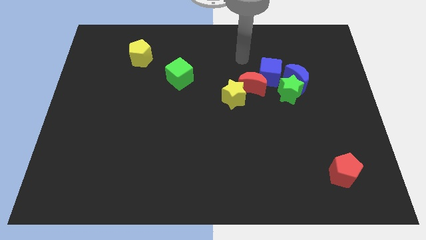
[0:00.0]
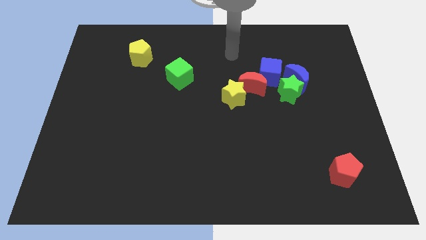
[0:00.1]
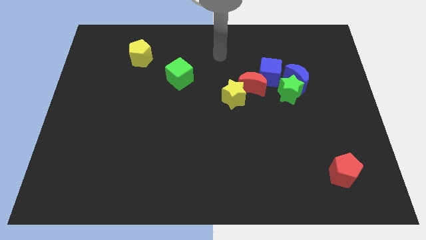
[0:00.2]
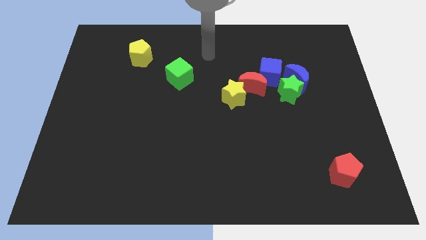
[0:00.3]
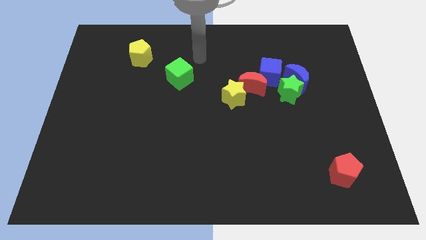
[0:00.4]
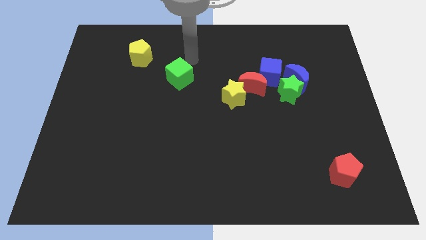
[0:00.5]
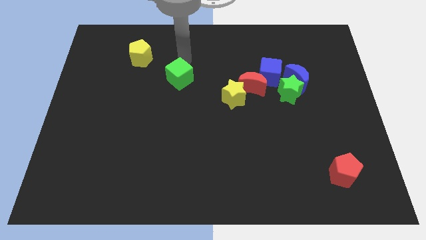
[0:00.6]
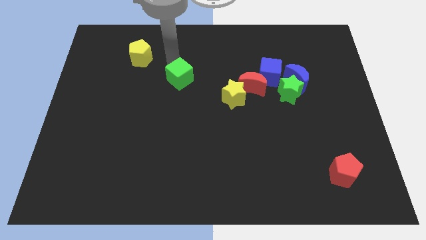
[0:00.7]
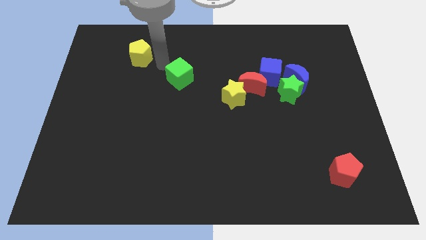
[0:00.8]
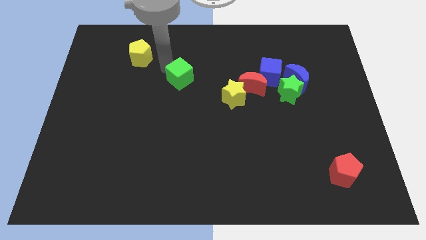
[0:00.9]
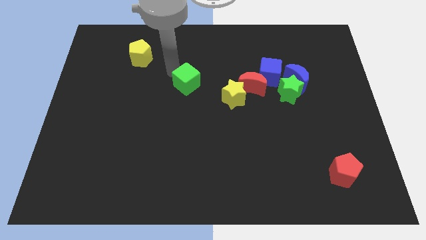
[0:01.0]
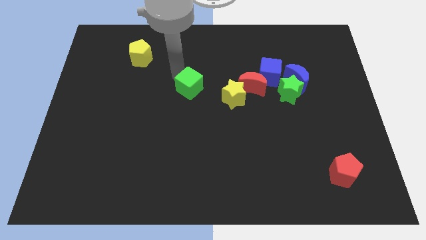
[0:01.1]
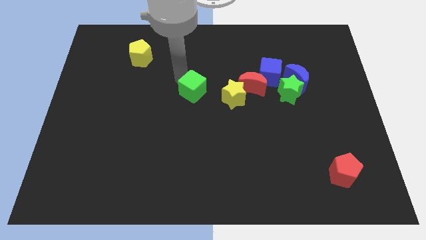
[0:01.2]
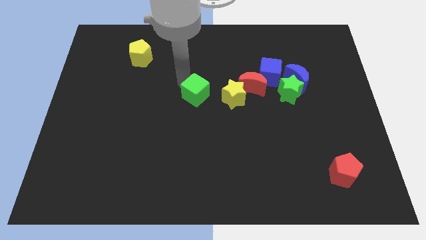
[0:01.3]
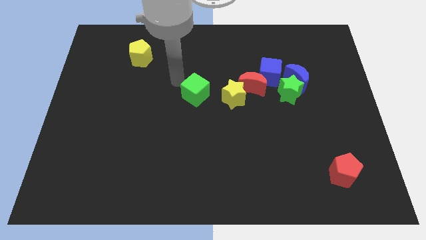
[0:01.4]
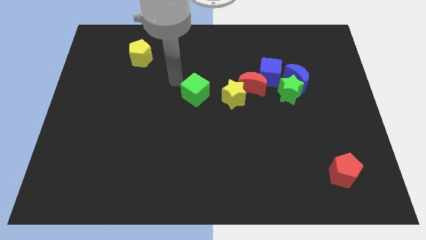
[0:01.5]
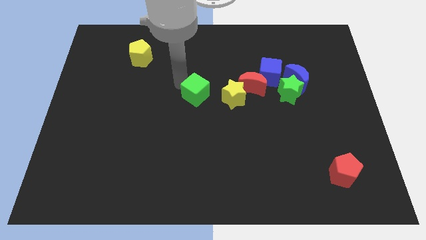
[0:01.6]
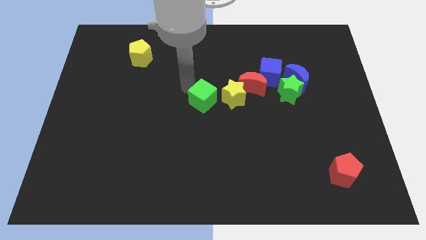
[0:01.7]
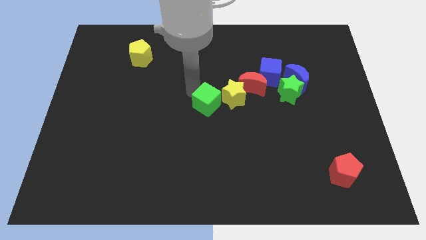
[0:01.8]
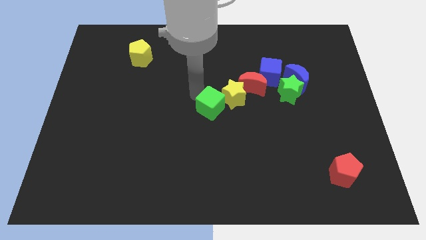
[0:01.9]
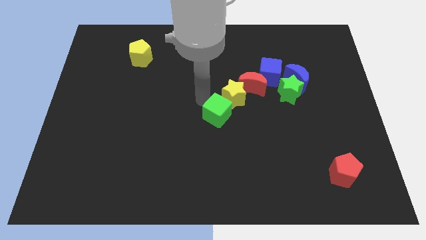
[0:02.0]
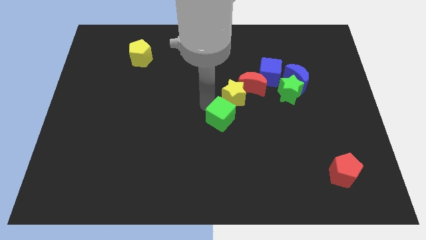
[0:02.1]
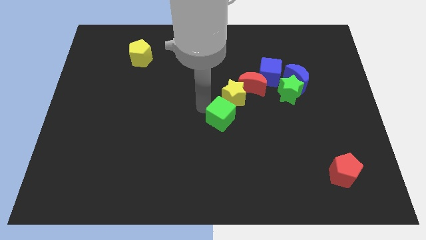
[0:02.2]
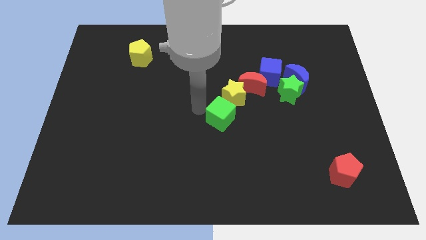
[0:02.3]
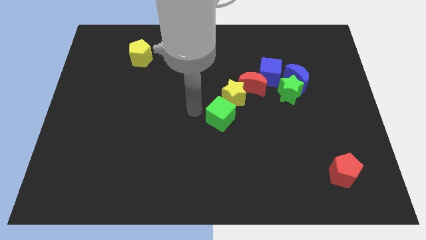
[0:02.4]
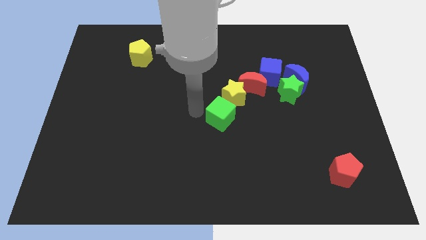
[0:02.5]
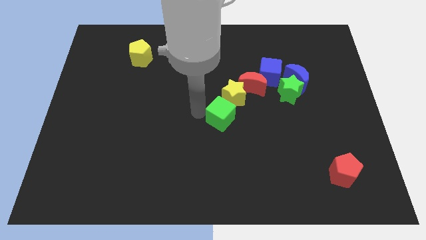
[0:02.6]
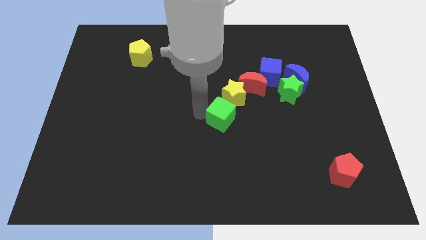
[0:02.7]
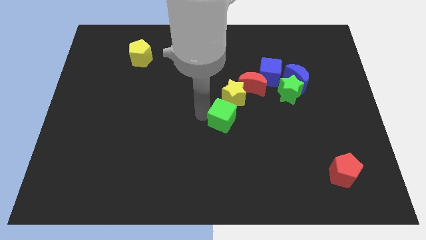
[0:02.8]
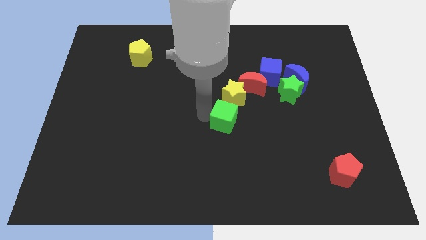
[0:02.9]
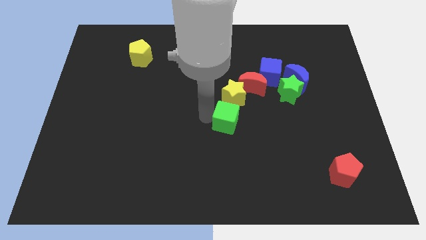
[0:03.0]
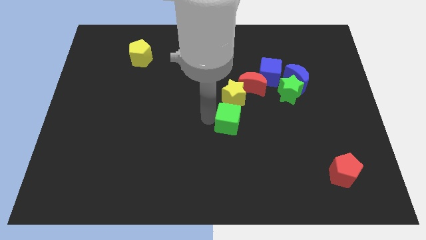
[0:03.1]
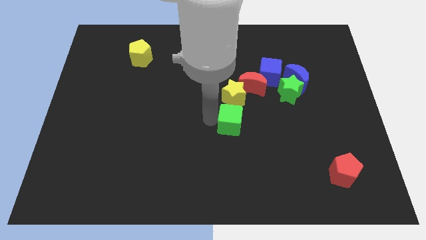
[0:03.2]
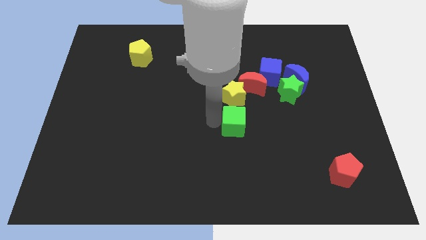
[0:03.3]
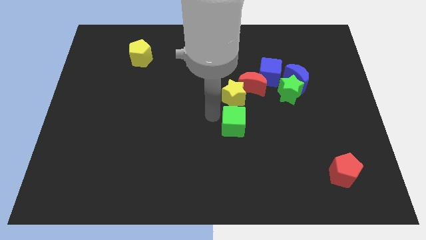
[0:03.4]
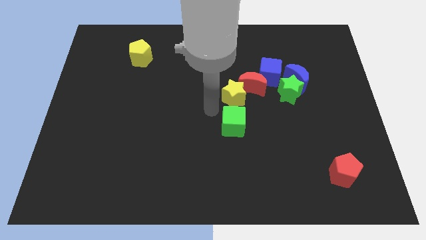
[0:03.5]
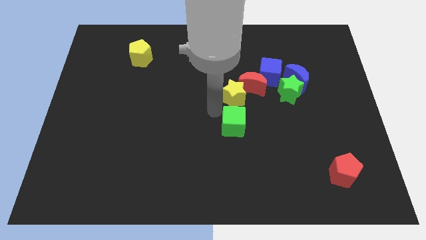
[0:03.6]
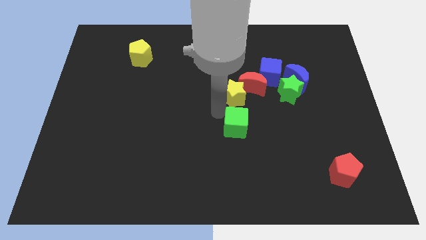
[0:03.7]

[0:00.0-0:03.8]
slide the green cube downwards and then to the right

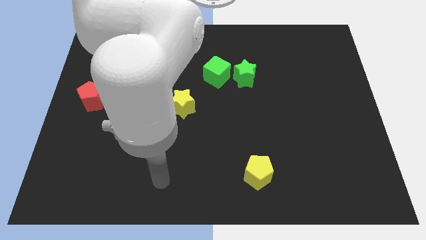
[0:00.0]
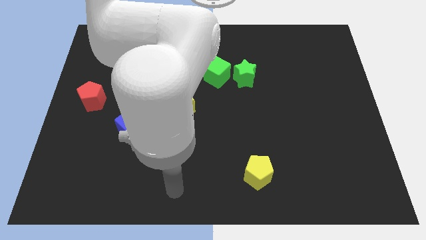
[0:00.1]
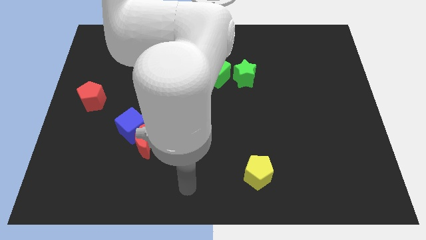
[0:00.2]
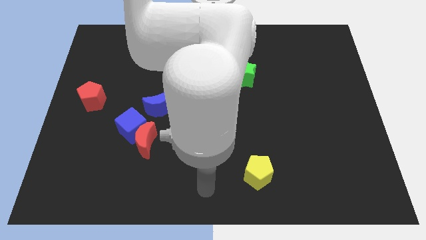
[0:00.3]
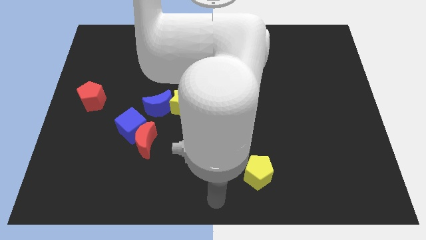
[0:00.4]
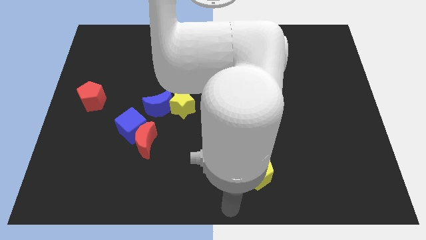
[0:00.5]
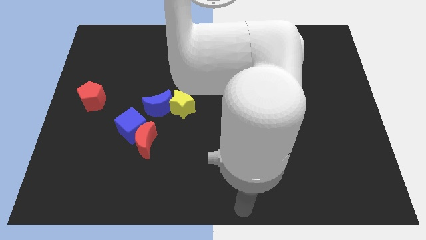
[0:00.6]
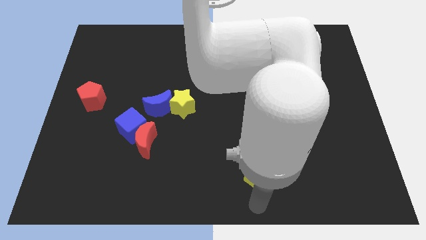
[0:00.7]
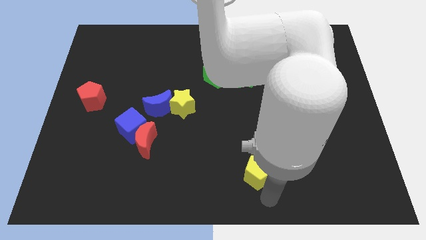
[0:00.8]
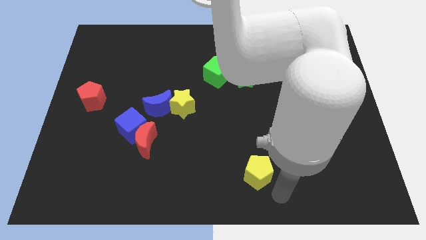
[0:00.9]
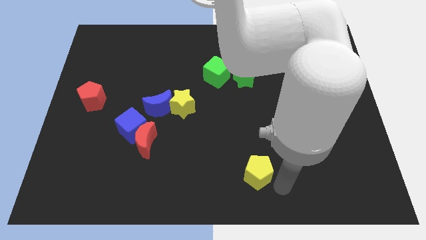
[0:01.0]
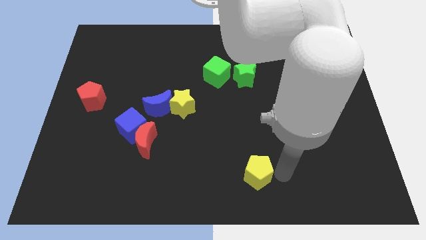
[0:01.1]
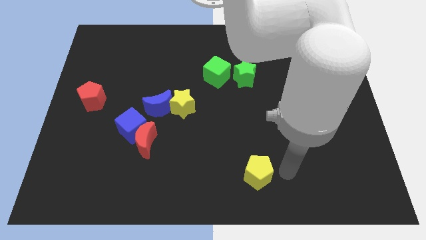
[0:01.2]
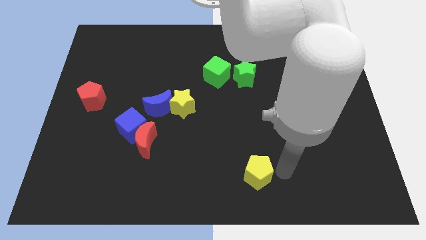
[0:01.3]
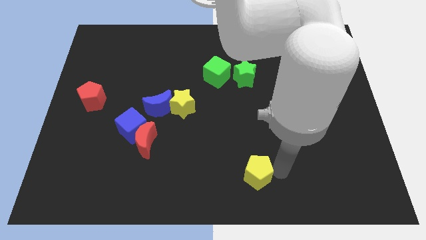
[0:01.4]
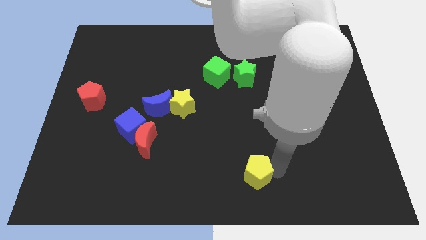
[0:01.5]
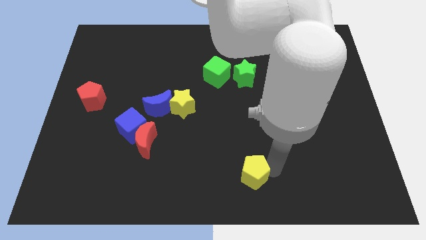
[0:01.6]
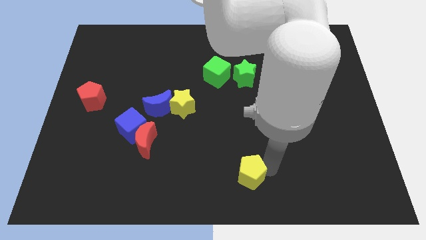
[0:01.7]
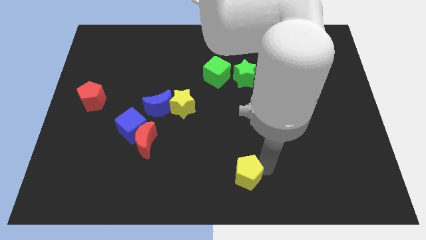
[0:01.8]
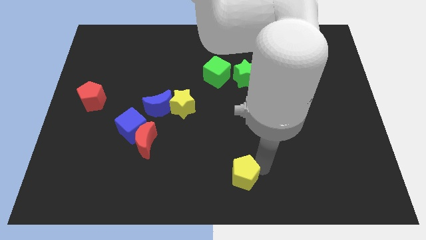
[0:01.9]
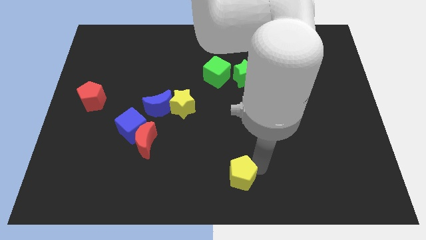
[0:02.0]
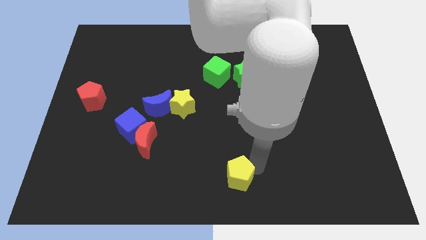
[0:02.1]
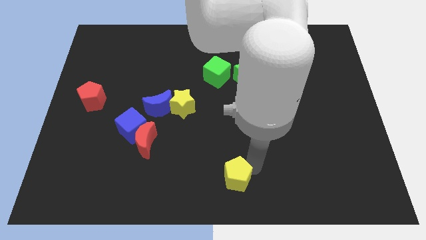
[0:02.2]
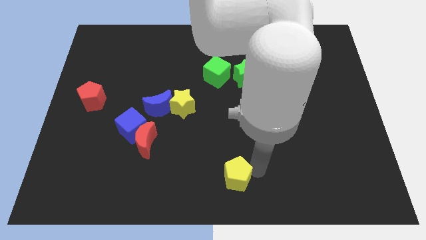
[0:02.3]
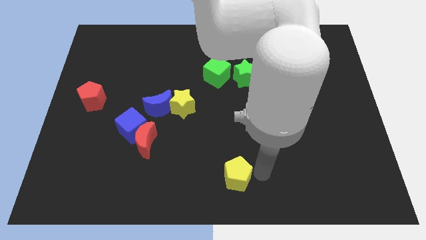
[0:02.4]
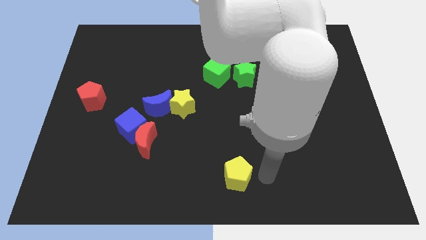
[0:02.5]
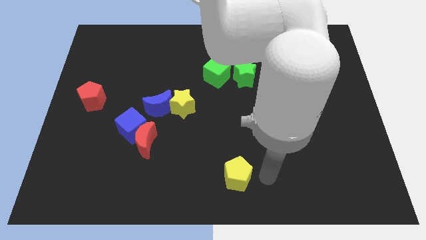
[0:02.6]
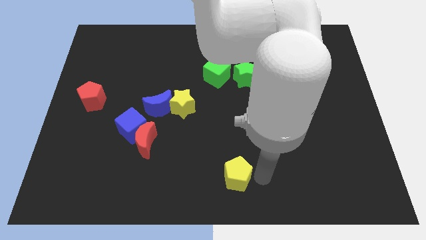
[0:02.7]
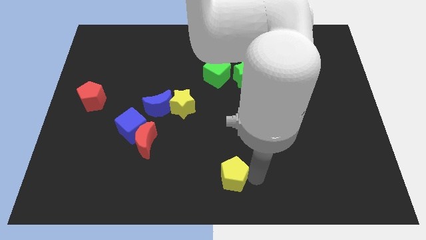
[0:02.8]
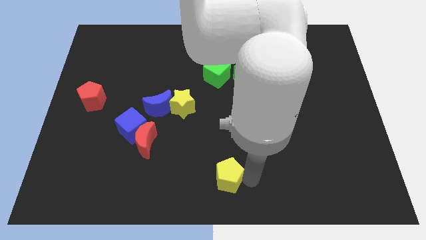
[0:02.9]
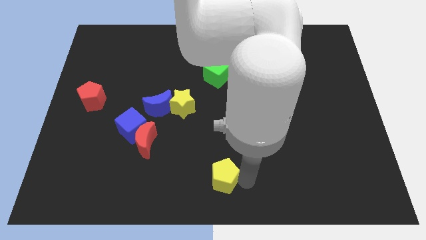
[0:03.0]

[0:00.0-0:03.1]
push the yellow pentagon a little left

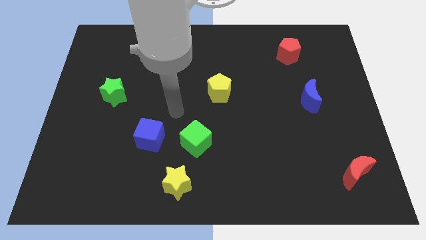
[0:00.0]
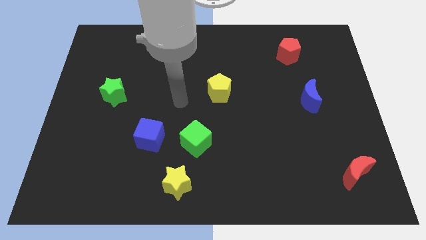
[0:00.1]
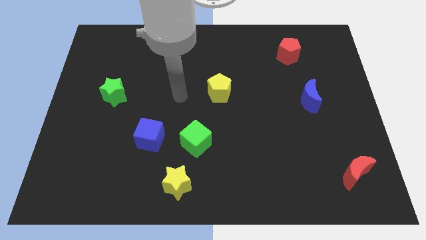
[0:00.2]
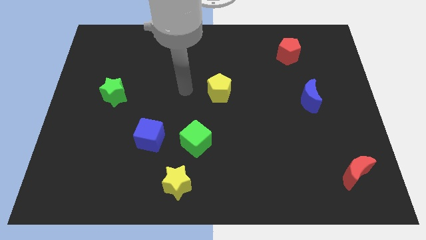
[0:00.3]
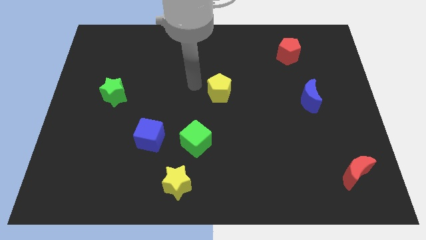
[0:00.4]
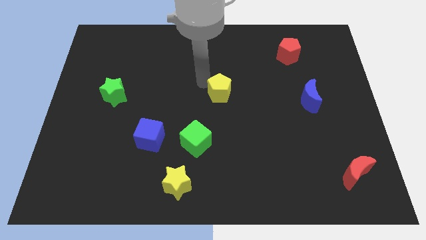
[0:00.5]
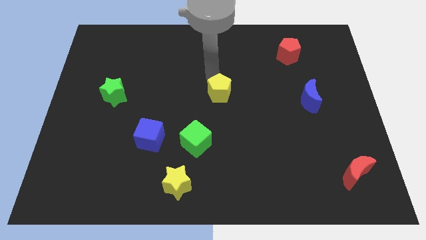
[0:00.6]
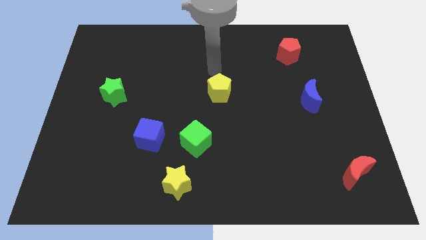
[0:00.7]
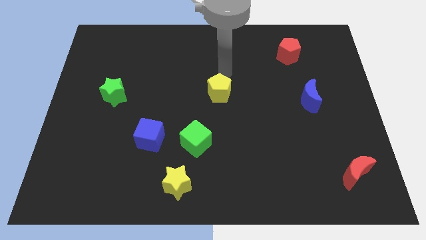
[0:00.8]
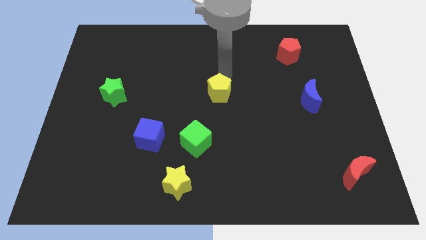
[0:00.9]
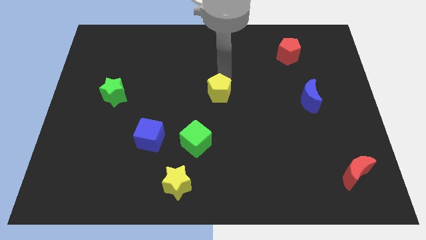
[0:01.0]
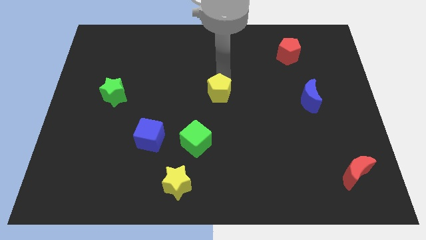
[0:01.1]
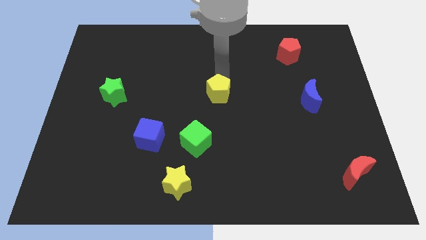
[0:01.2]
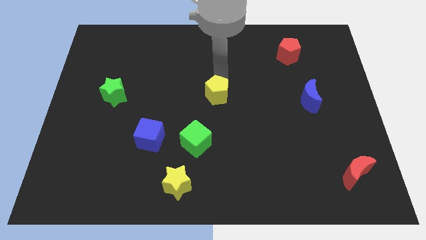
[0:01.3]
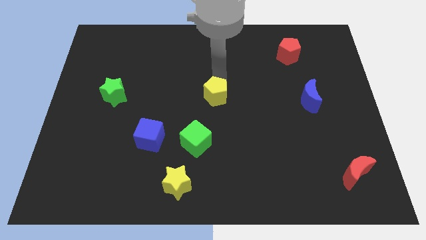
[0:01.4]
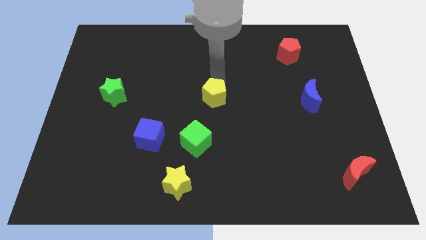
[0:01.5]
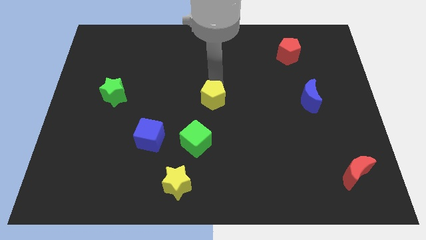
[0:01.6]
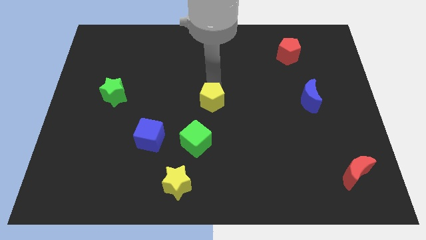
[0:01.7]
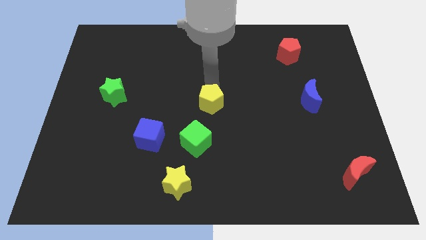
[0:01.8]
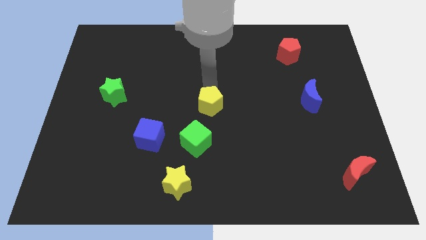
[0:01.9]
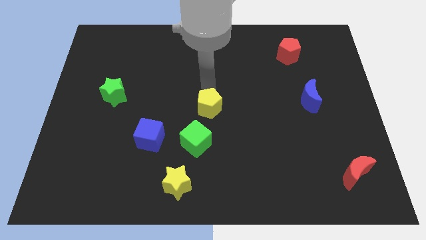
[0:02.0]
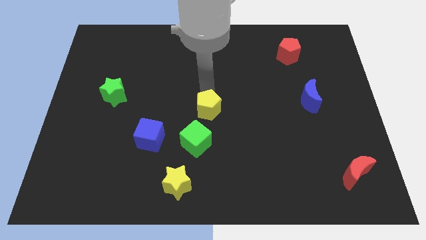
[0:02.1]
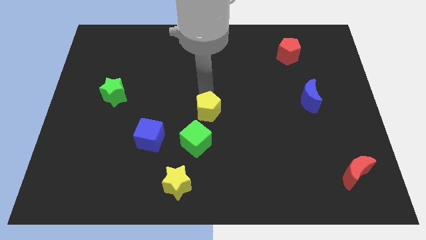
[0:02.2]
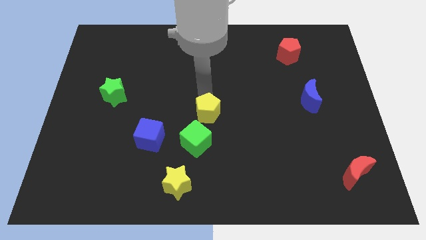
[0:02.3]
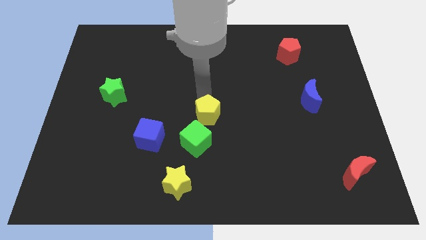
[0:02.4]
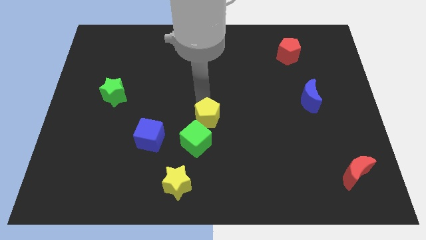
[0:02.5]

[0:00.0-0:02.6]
push the yellow pentagon down somewhat
